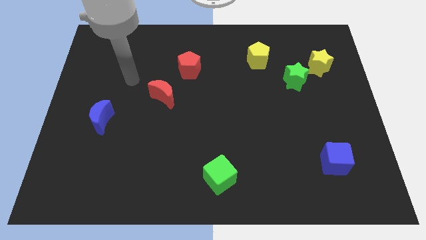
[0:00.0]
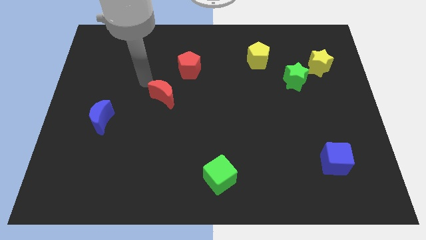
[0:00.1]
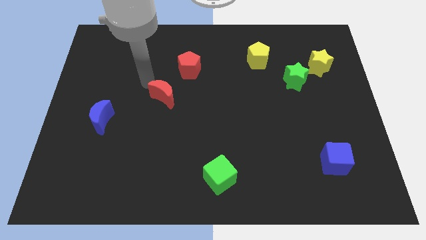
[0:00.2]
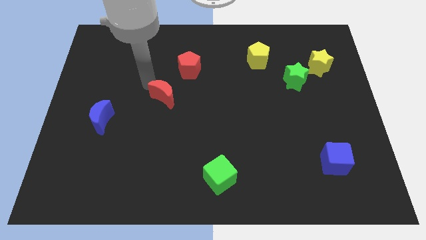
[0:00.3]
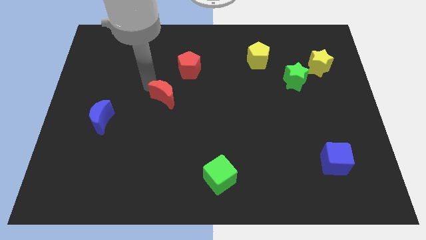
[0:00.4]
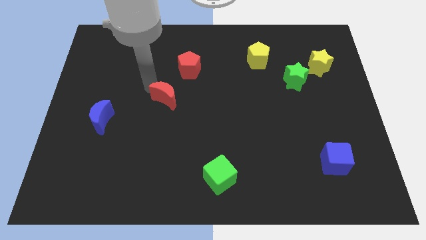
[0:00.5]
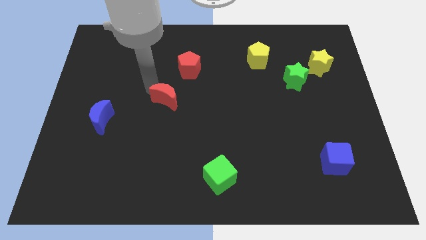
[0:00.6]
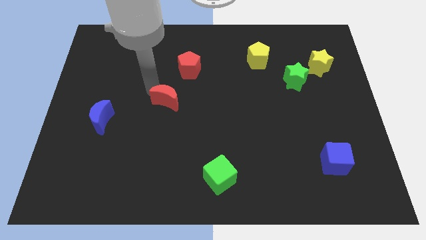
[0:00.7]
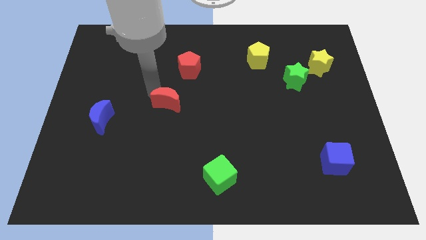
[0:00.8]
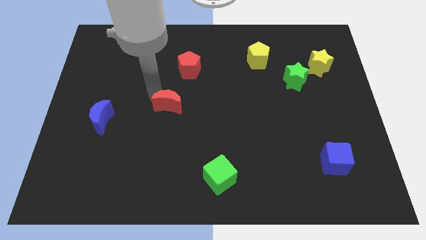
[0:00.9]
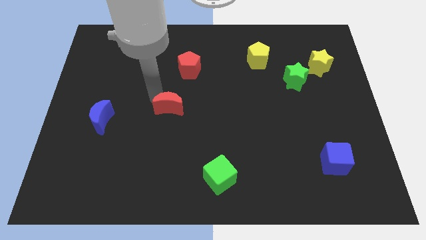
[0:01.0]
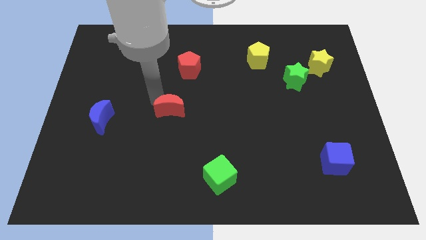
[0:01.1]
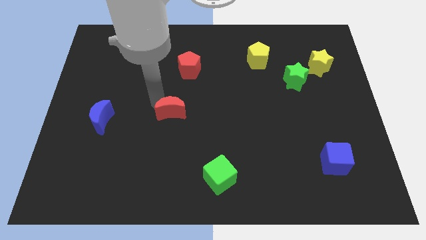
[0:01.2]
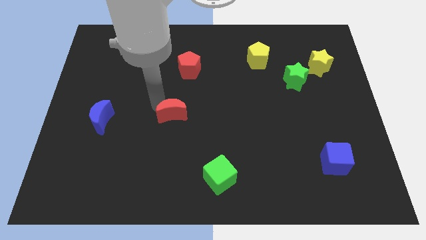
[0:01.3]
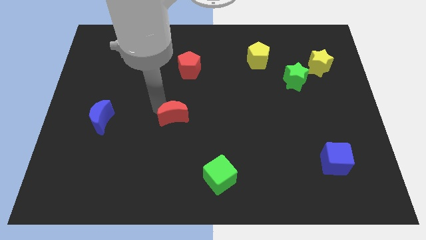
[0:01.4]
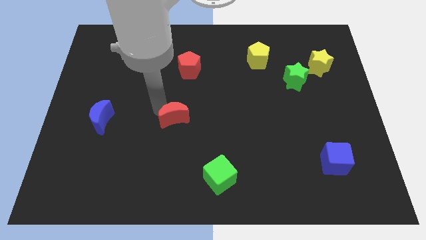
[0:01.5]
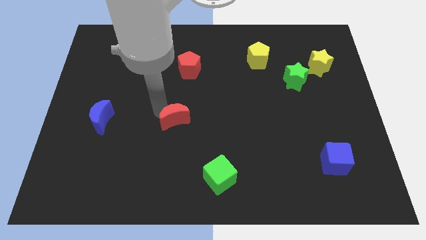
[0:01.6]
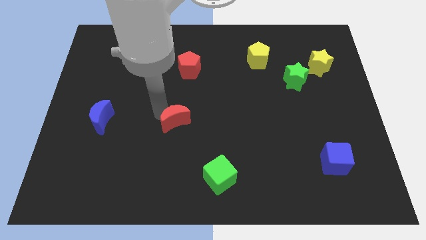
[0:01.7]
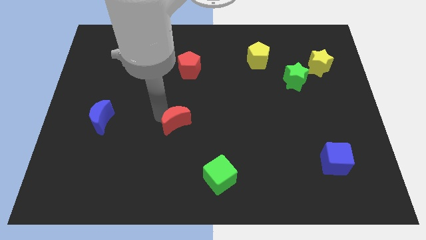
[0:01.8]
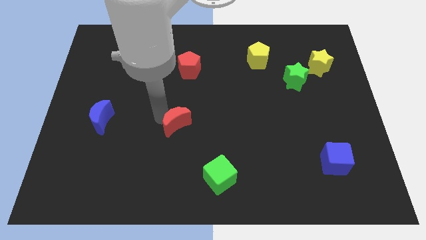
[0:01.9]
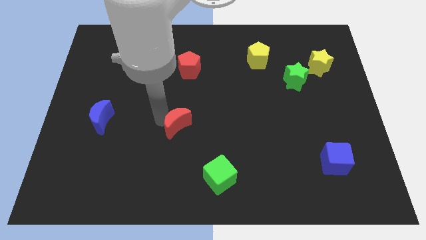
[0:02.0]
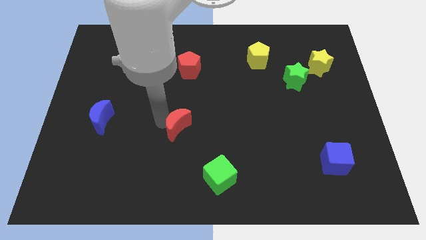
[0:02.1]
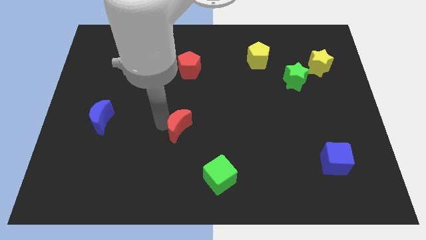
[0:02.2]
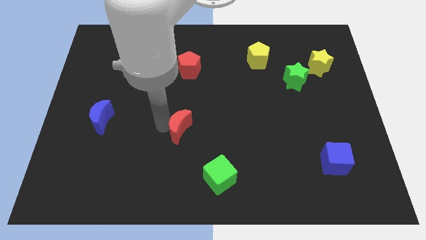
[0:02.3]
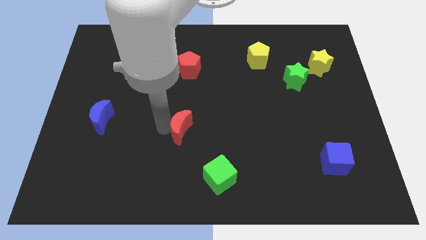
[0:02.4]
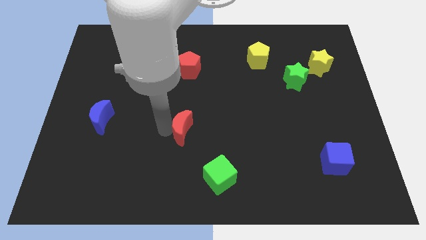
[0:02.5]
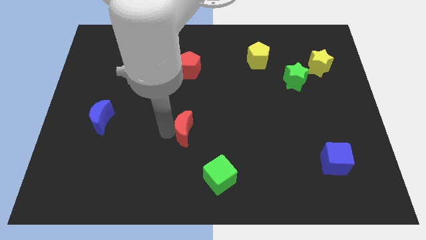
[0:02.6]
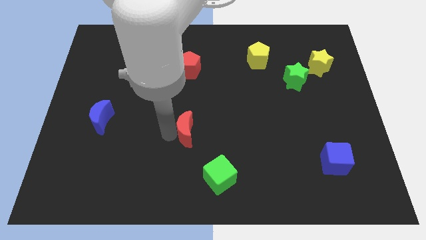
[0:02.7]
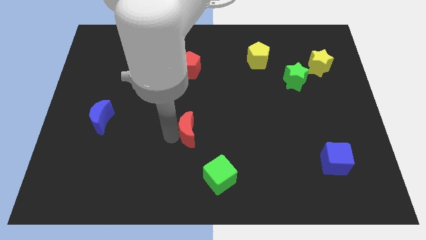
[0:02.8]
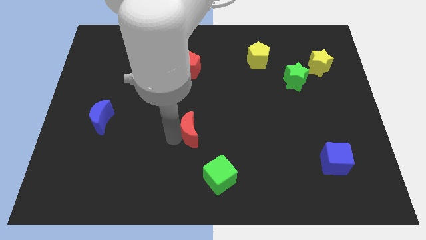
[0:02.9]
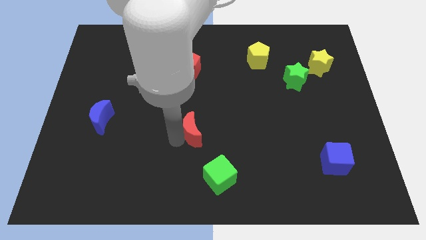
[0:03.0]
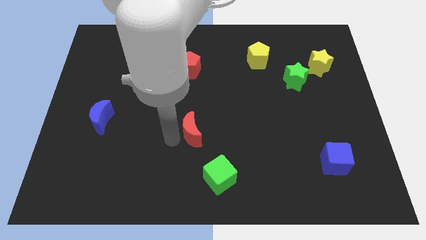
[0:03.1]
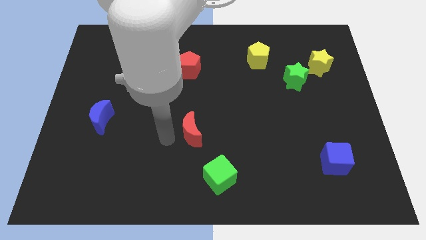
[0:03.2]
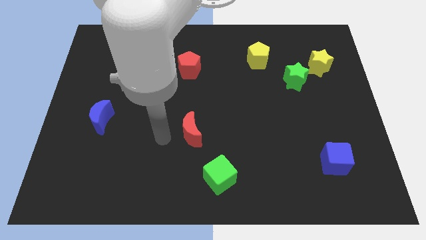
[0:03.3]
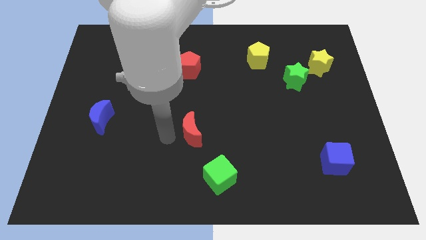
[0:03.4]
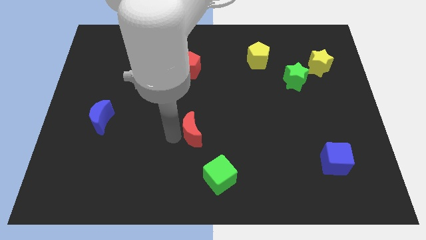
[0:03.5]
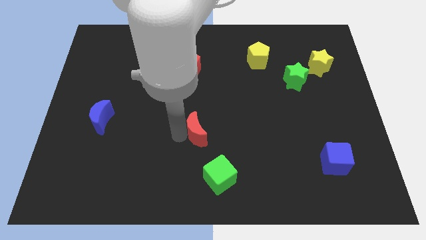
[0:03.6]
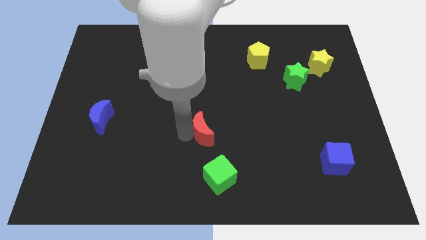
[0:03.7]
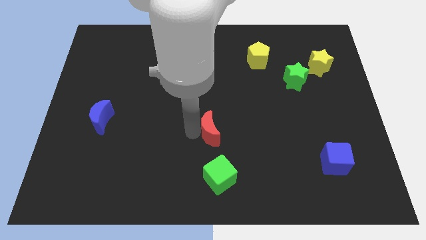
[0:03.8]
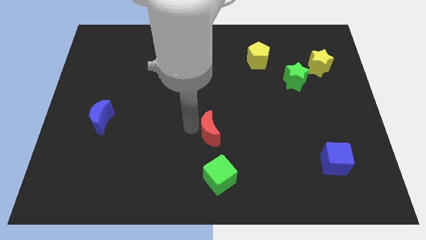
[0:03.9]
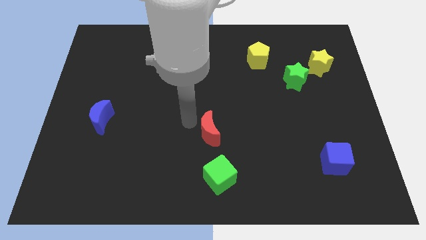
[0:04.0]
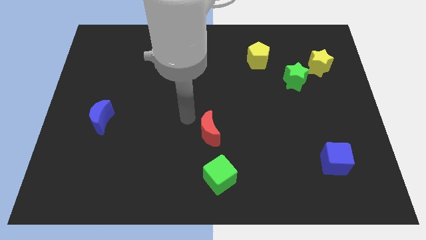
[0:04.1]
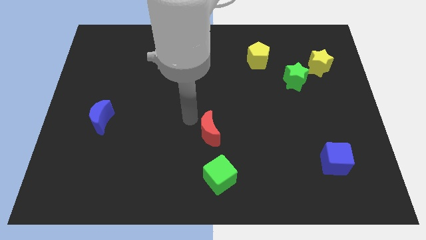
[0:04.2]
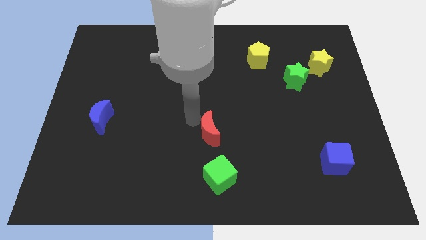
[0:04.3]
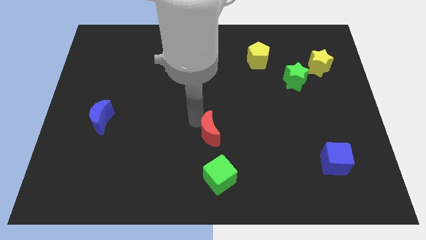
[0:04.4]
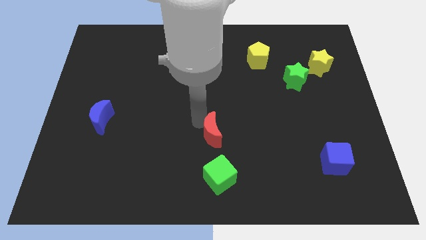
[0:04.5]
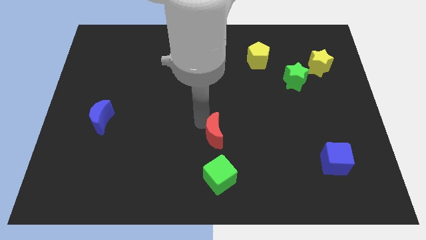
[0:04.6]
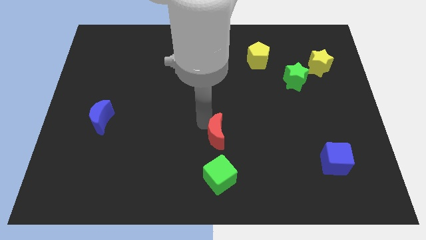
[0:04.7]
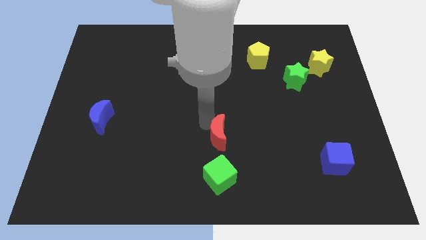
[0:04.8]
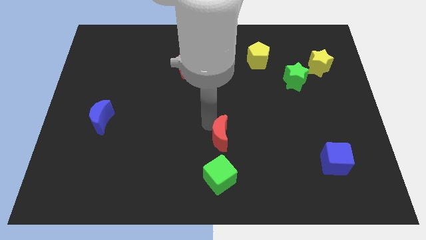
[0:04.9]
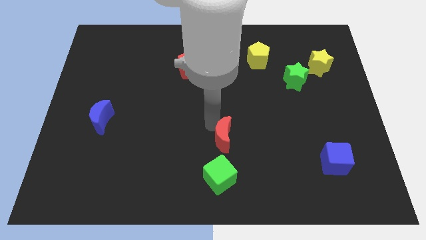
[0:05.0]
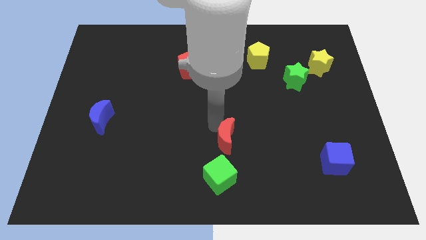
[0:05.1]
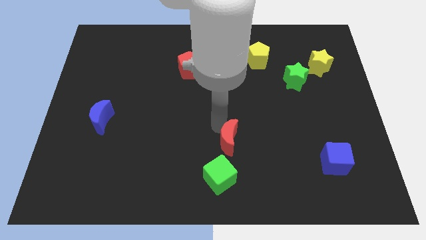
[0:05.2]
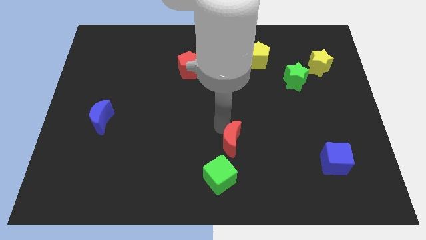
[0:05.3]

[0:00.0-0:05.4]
slide the red moon down and right diagonally

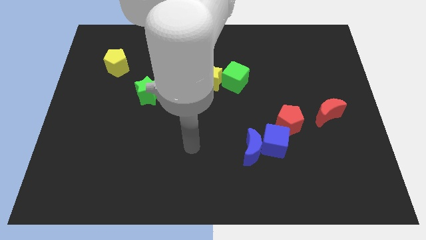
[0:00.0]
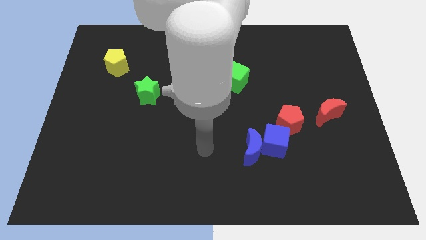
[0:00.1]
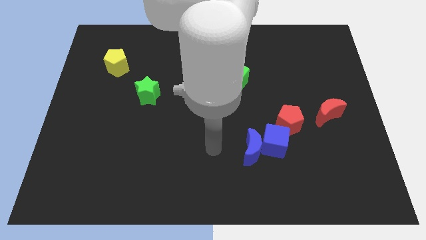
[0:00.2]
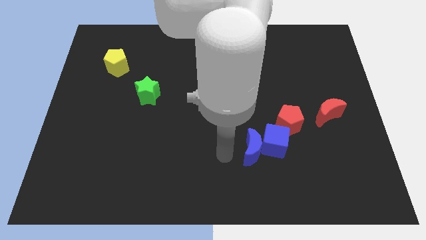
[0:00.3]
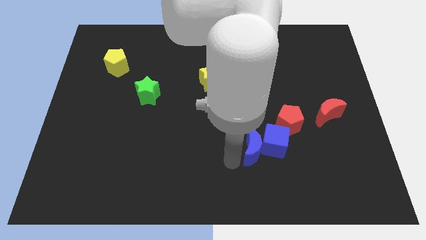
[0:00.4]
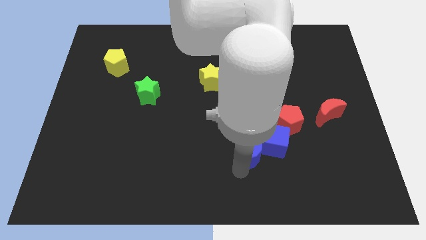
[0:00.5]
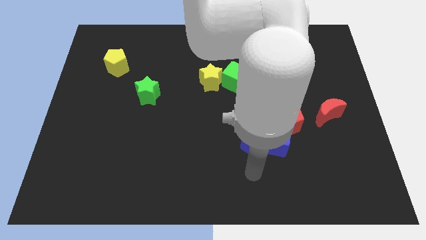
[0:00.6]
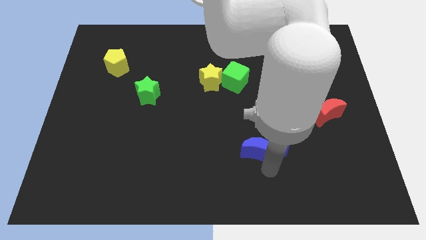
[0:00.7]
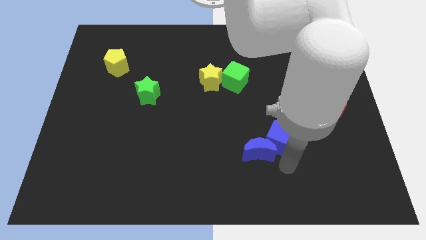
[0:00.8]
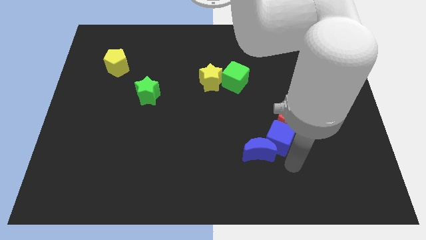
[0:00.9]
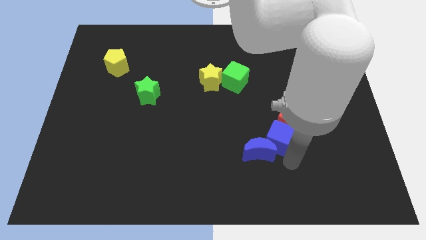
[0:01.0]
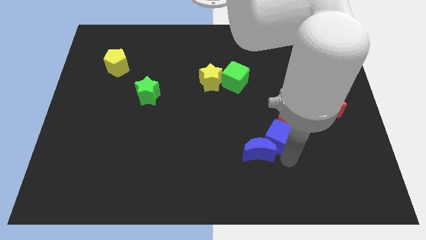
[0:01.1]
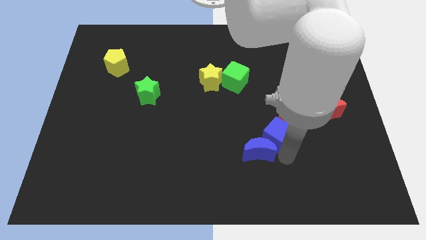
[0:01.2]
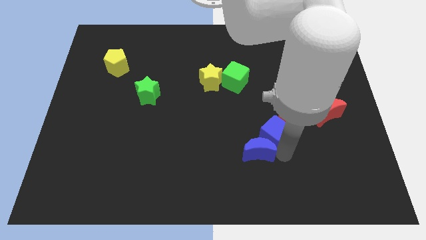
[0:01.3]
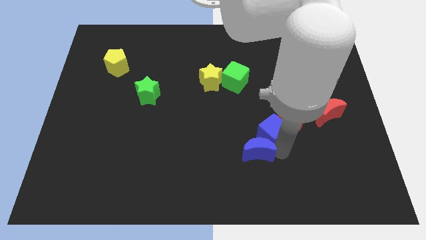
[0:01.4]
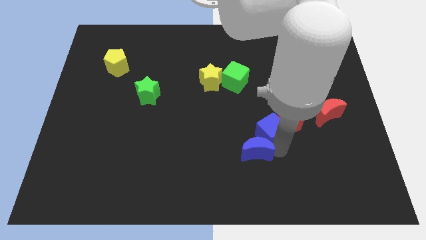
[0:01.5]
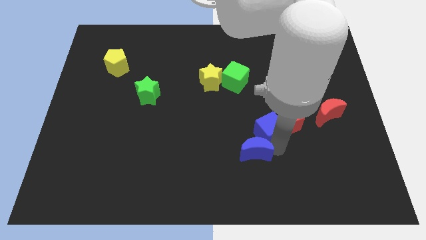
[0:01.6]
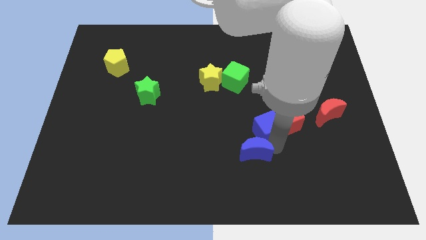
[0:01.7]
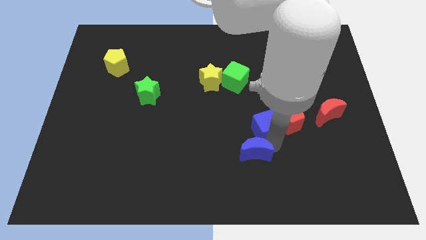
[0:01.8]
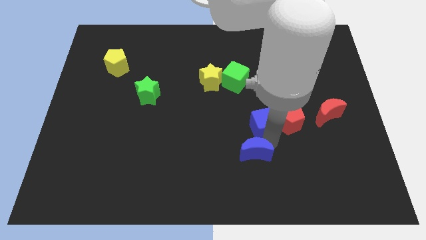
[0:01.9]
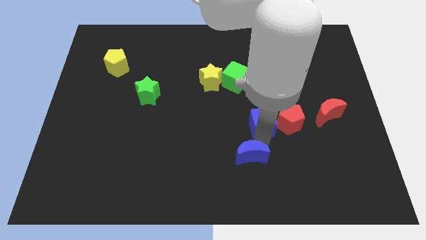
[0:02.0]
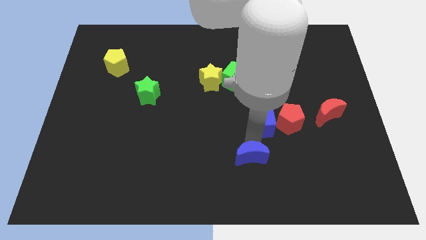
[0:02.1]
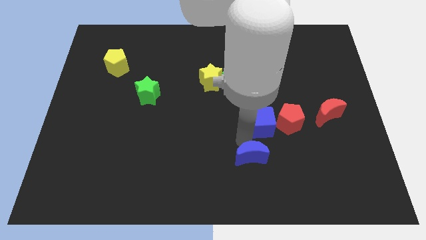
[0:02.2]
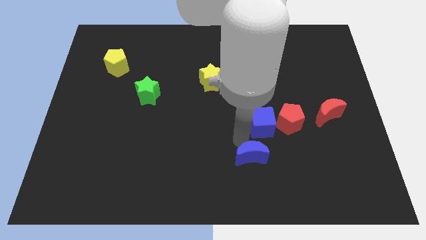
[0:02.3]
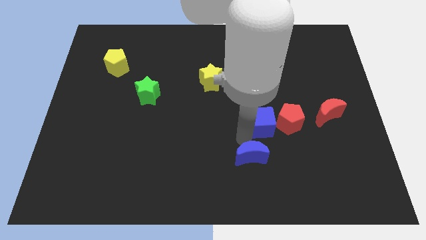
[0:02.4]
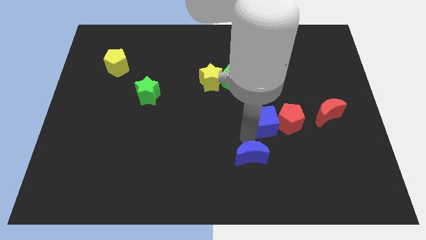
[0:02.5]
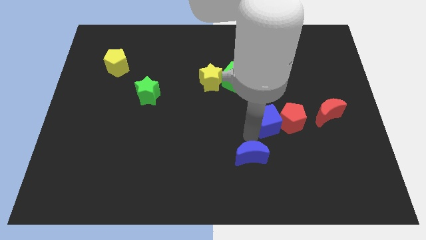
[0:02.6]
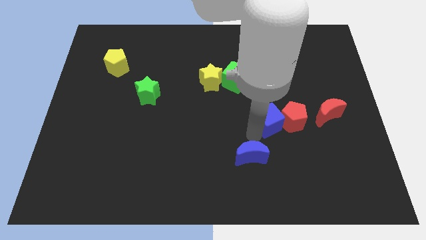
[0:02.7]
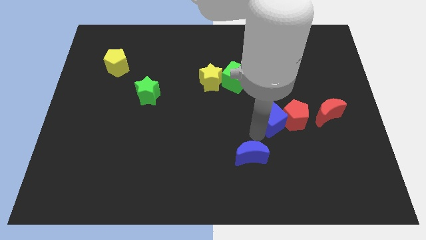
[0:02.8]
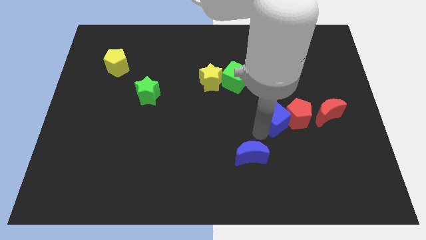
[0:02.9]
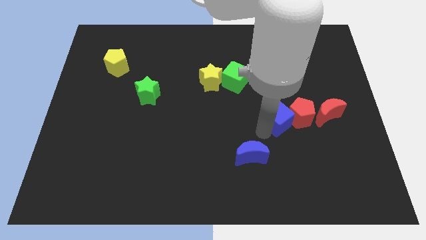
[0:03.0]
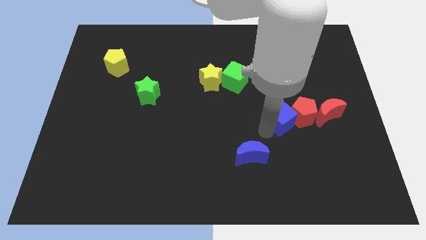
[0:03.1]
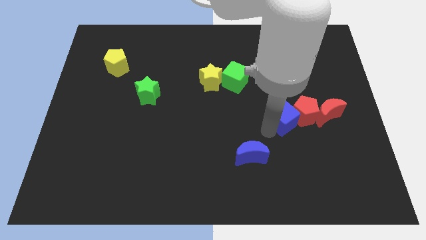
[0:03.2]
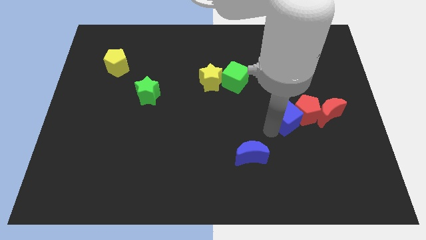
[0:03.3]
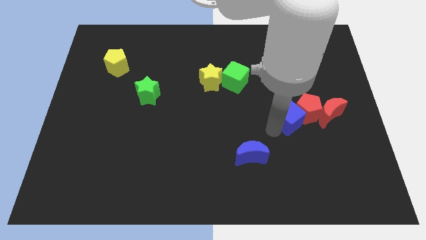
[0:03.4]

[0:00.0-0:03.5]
push the blue cube slightly upwards and right diagonally
